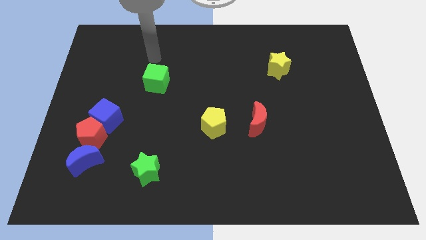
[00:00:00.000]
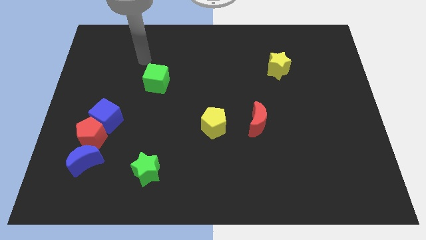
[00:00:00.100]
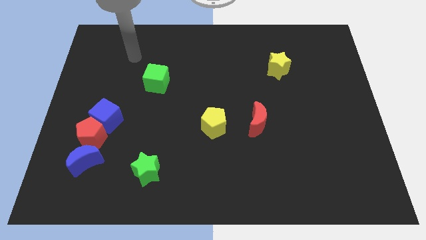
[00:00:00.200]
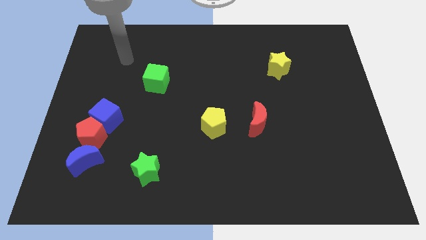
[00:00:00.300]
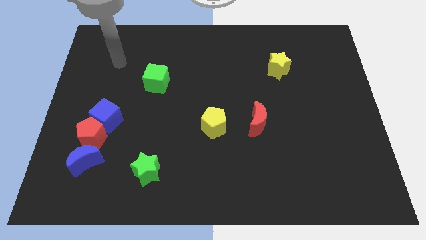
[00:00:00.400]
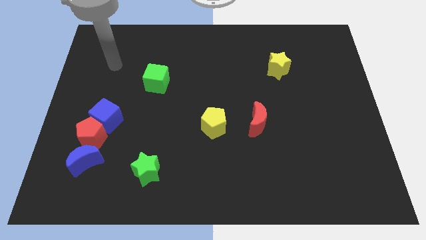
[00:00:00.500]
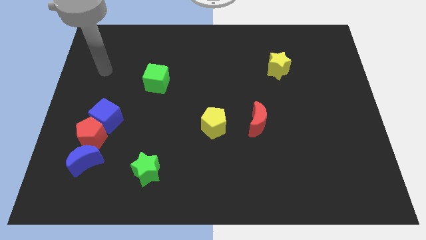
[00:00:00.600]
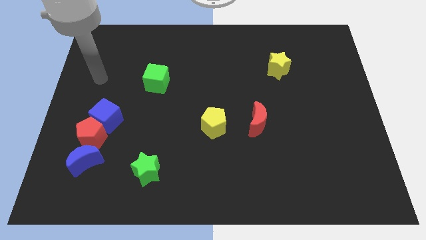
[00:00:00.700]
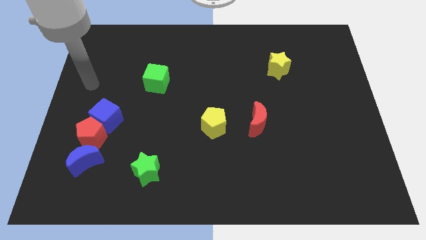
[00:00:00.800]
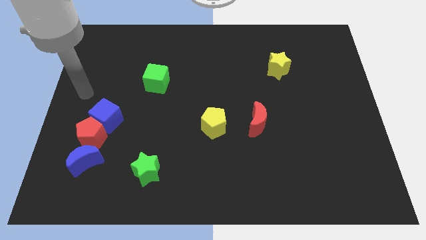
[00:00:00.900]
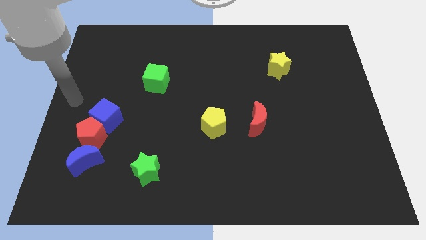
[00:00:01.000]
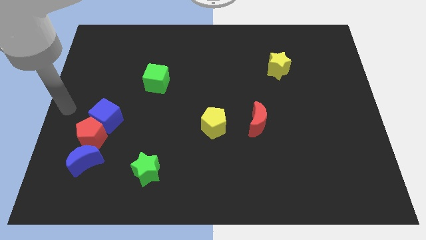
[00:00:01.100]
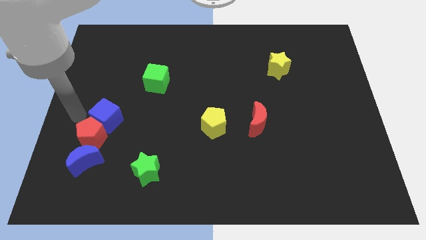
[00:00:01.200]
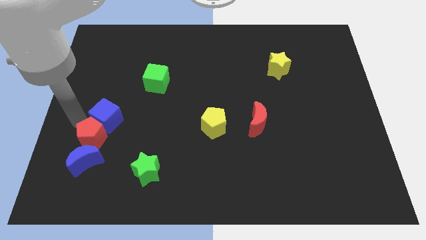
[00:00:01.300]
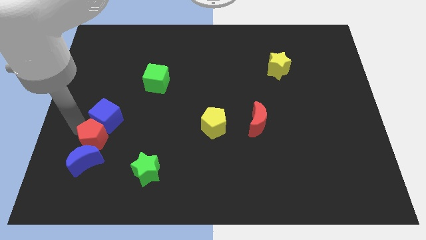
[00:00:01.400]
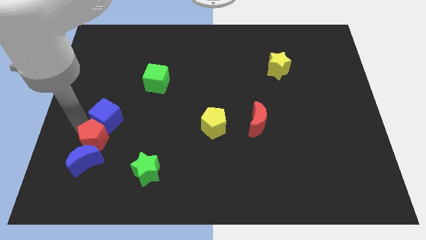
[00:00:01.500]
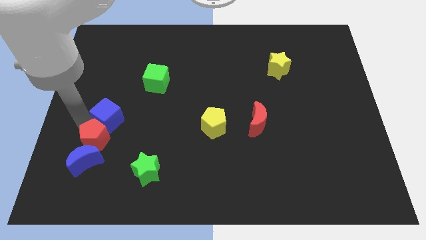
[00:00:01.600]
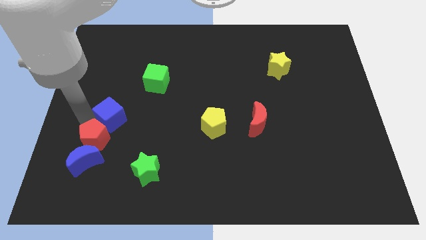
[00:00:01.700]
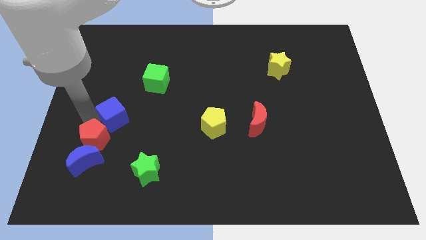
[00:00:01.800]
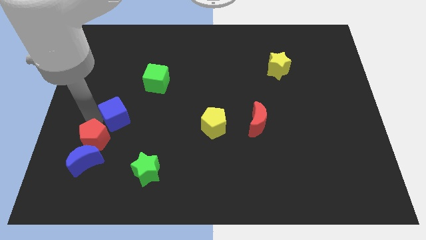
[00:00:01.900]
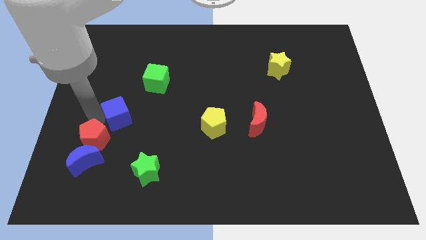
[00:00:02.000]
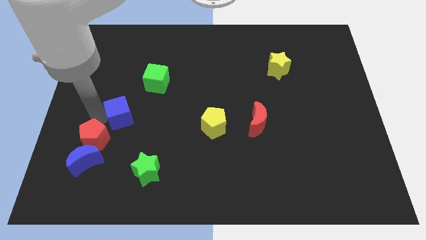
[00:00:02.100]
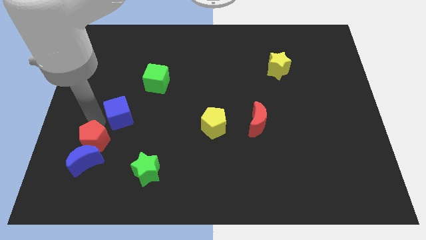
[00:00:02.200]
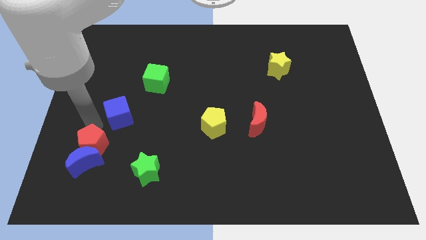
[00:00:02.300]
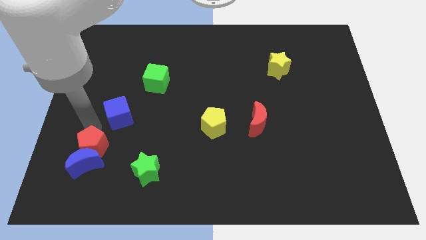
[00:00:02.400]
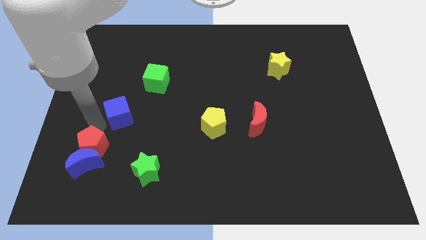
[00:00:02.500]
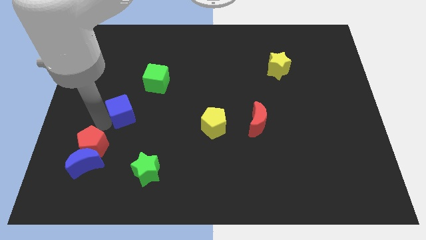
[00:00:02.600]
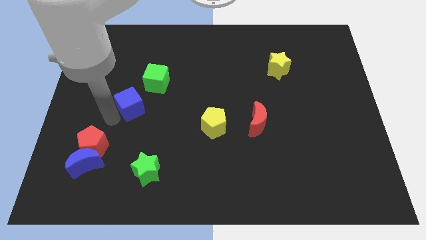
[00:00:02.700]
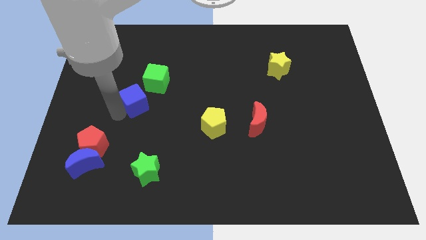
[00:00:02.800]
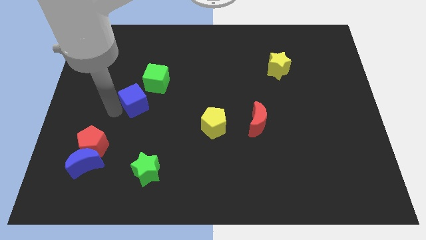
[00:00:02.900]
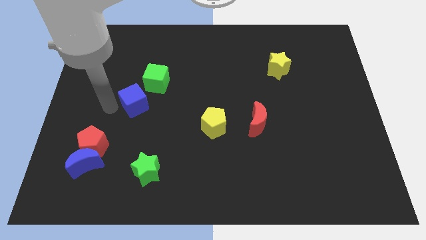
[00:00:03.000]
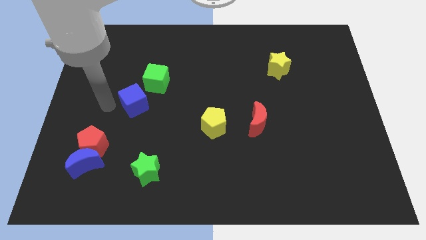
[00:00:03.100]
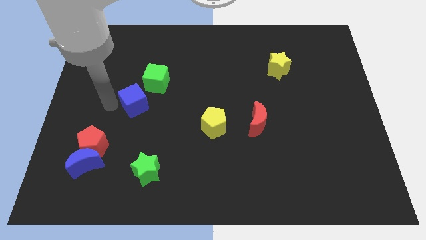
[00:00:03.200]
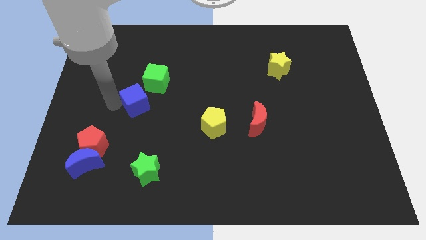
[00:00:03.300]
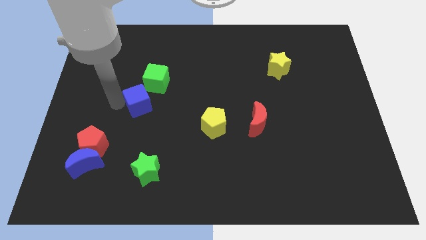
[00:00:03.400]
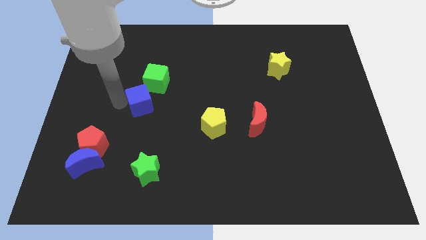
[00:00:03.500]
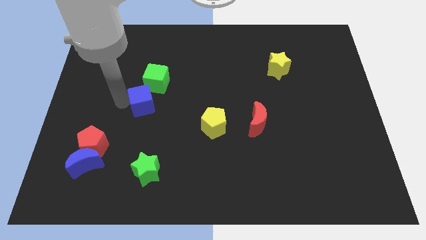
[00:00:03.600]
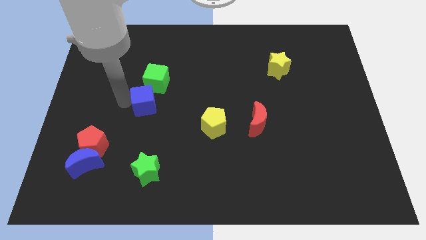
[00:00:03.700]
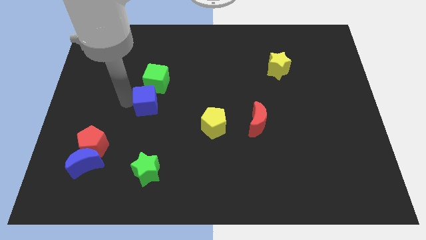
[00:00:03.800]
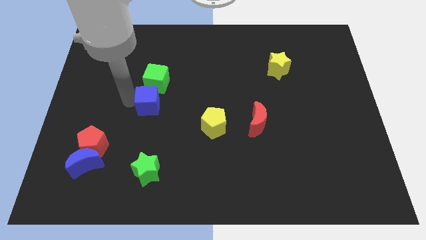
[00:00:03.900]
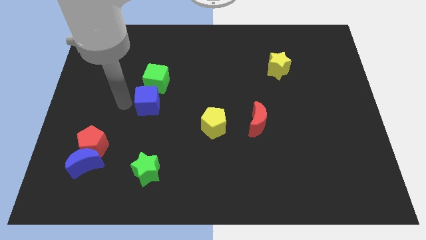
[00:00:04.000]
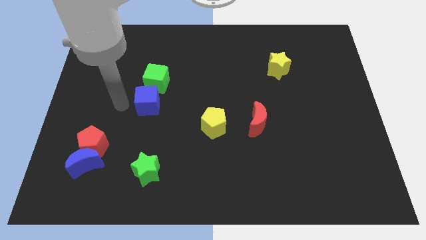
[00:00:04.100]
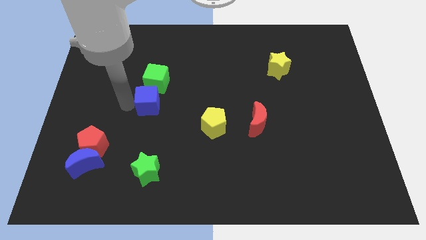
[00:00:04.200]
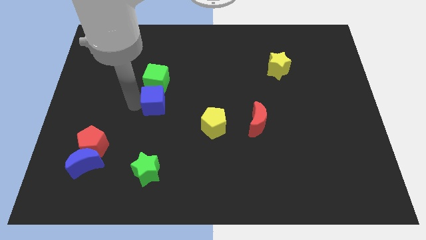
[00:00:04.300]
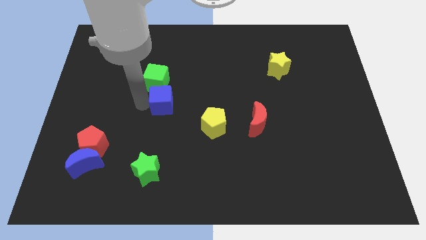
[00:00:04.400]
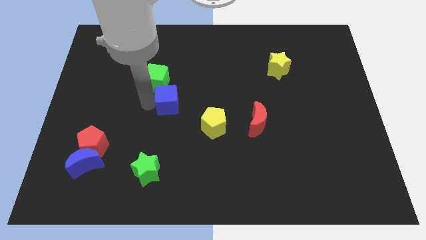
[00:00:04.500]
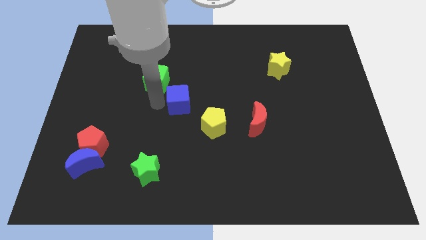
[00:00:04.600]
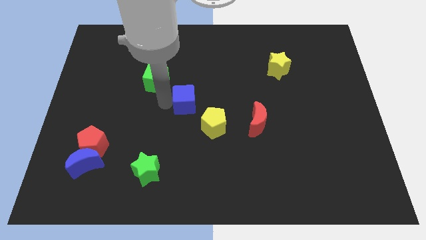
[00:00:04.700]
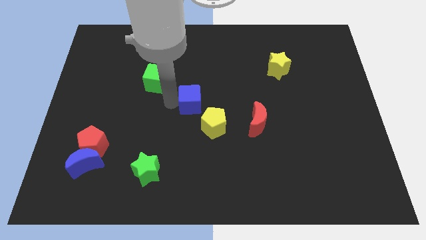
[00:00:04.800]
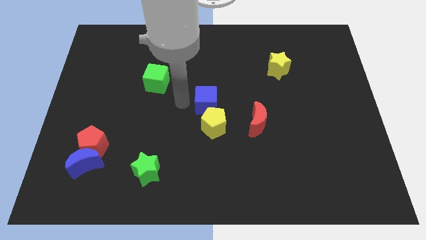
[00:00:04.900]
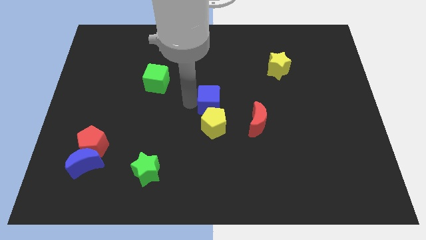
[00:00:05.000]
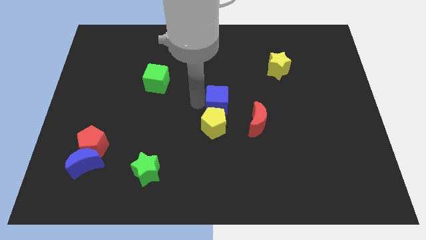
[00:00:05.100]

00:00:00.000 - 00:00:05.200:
put the blue cube to the top left side of the red moon

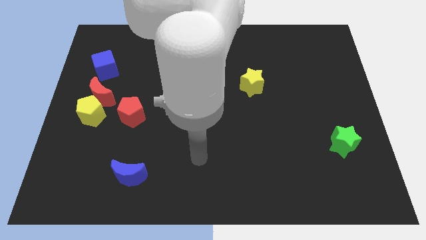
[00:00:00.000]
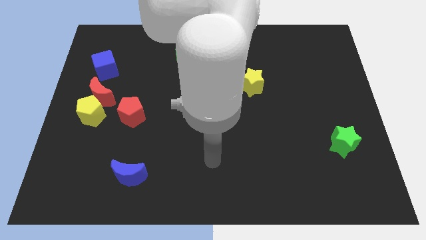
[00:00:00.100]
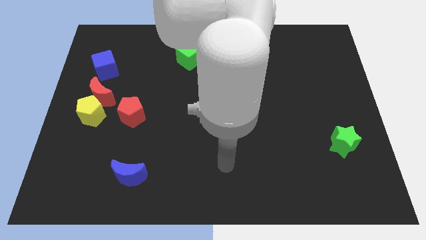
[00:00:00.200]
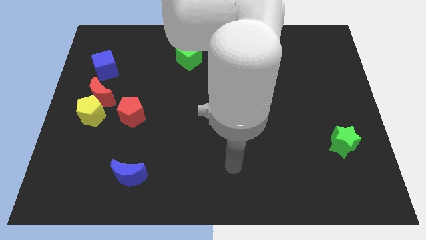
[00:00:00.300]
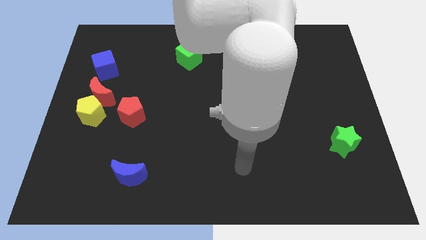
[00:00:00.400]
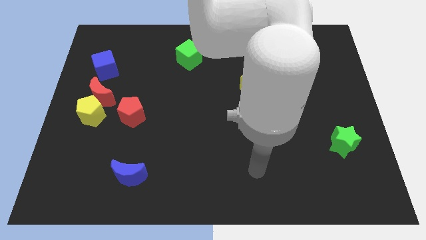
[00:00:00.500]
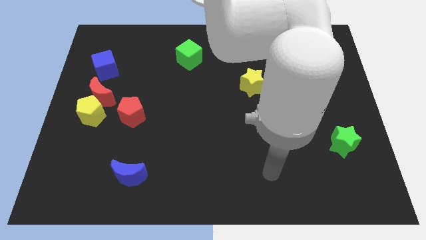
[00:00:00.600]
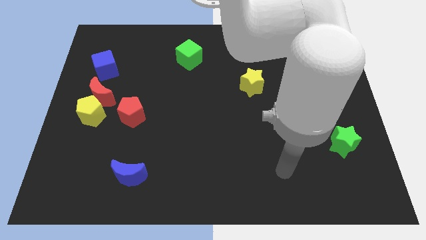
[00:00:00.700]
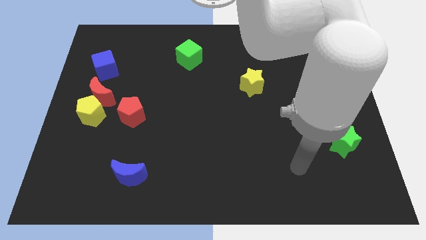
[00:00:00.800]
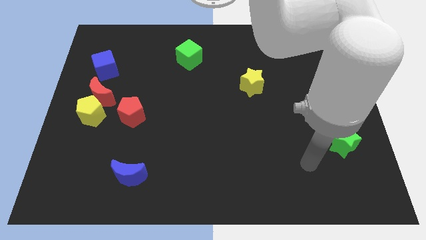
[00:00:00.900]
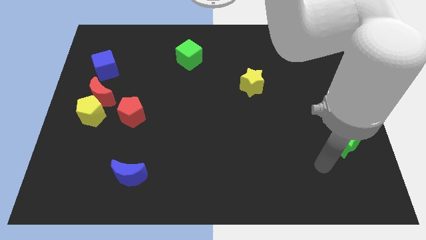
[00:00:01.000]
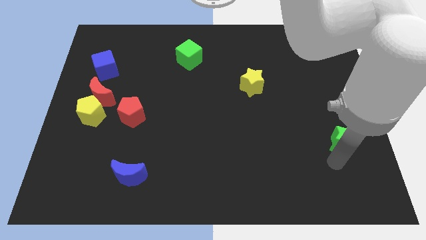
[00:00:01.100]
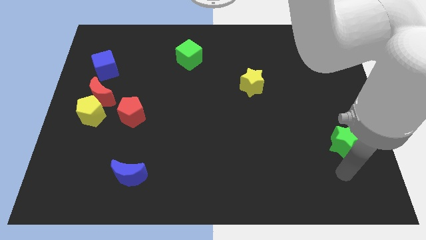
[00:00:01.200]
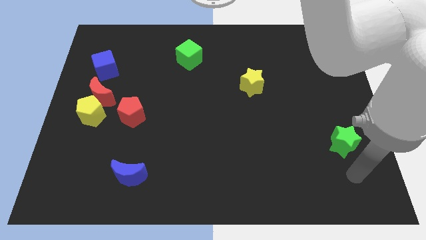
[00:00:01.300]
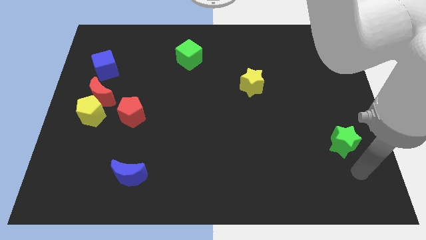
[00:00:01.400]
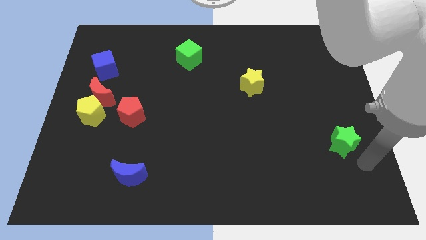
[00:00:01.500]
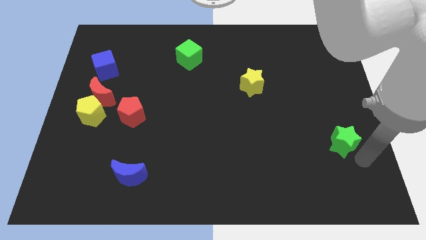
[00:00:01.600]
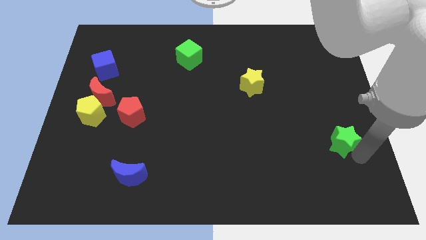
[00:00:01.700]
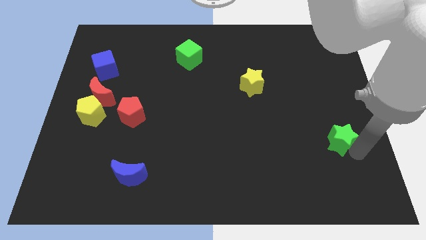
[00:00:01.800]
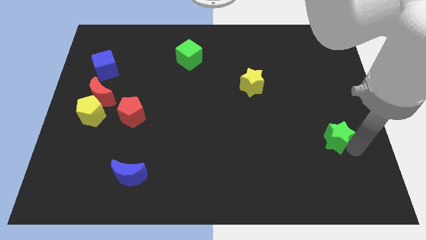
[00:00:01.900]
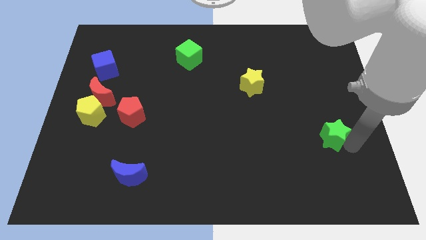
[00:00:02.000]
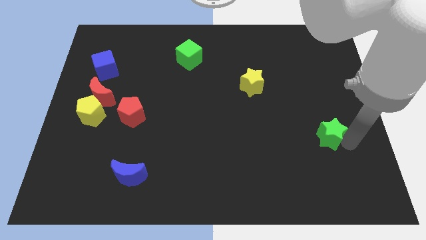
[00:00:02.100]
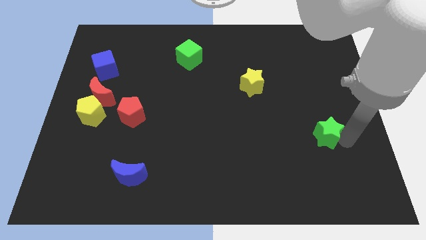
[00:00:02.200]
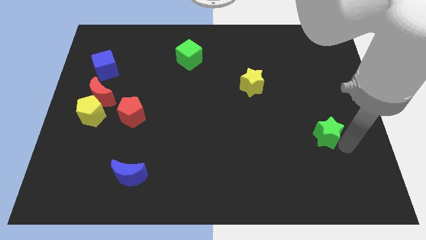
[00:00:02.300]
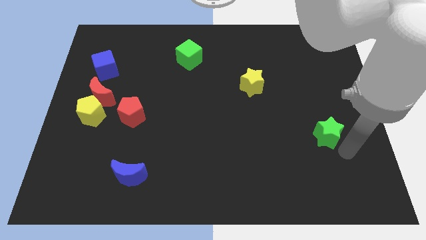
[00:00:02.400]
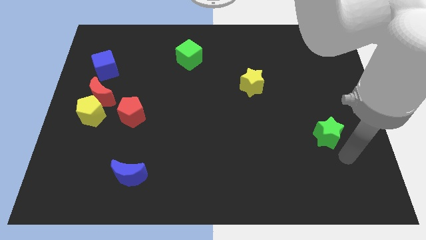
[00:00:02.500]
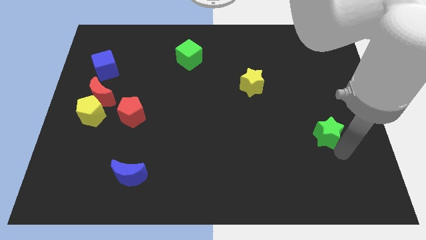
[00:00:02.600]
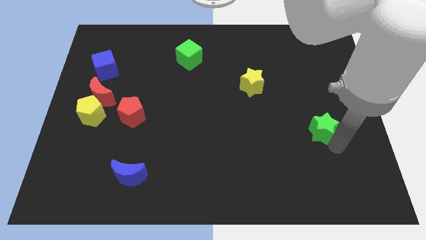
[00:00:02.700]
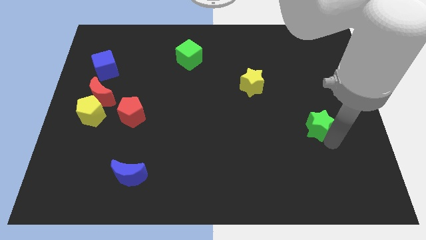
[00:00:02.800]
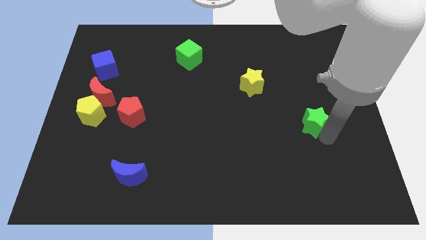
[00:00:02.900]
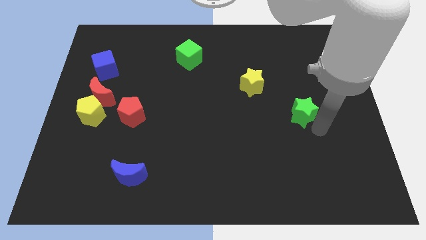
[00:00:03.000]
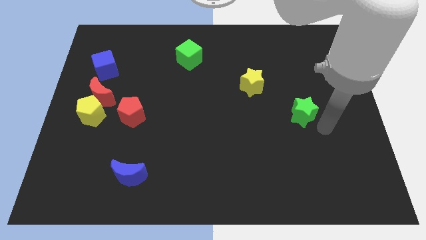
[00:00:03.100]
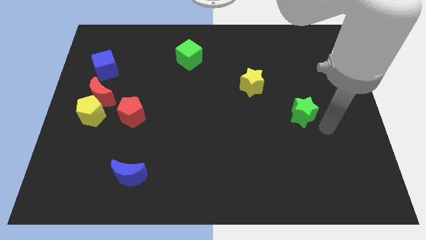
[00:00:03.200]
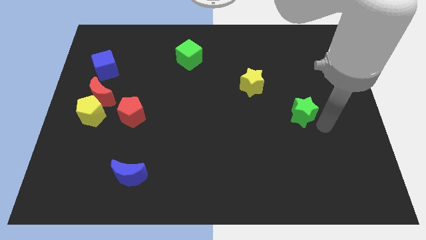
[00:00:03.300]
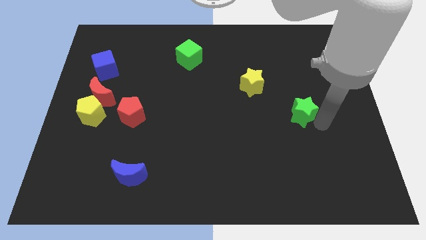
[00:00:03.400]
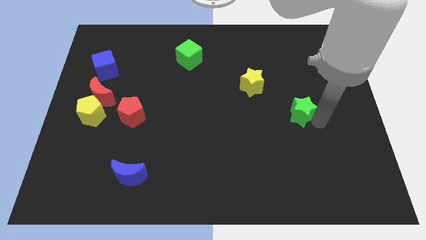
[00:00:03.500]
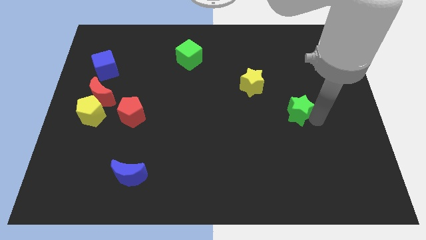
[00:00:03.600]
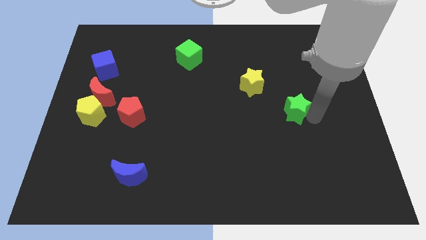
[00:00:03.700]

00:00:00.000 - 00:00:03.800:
push the green star to the bottom right side of the yellow star
